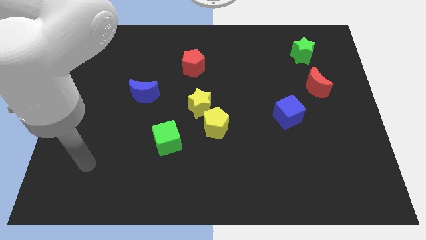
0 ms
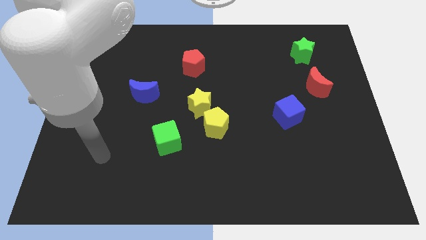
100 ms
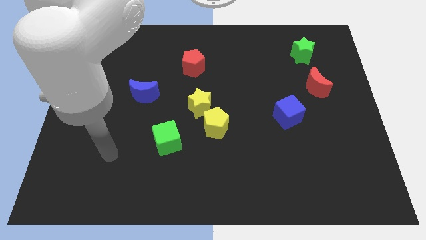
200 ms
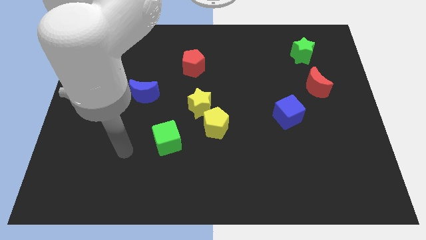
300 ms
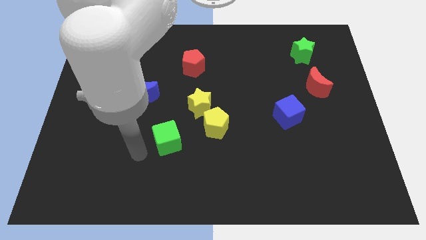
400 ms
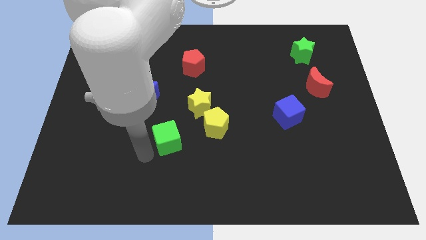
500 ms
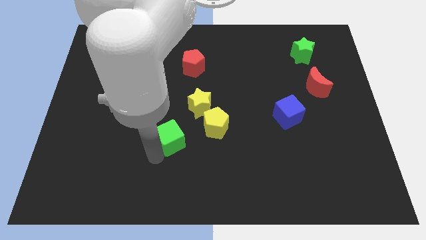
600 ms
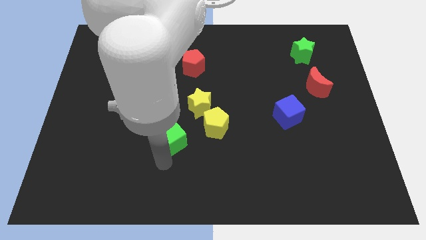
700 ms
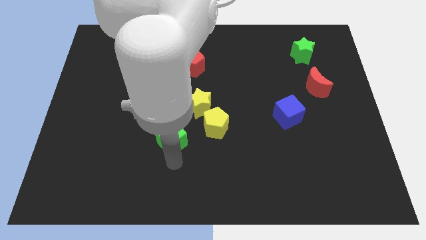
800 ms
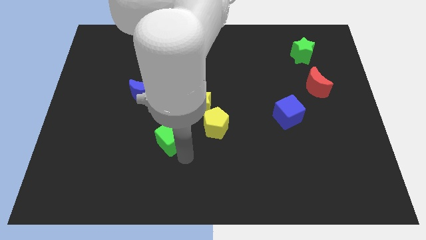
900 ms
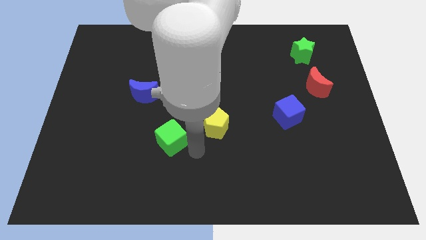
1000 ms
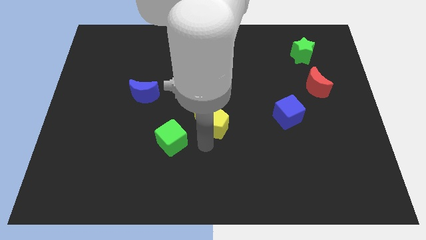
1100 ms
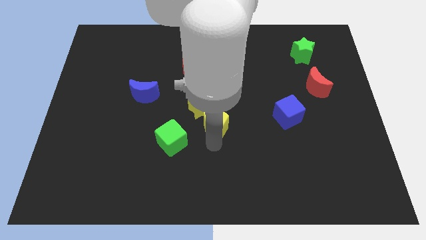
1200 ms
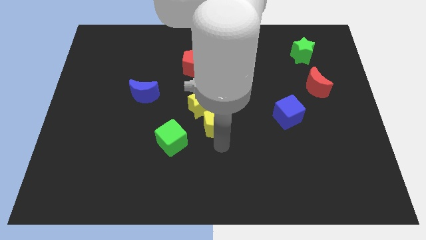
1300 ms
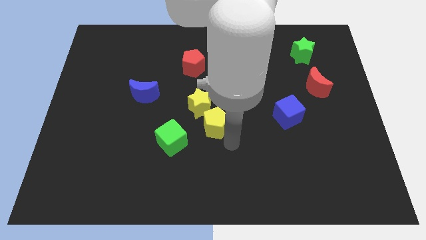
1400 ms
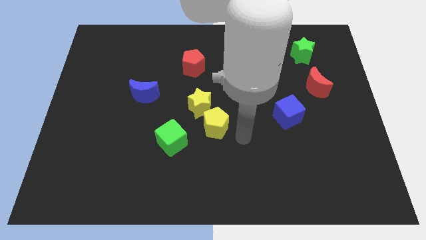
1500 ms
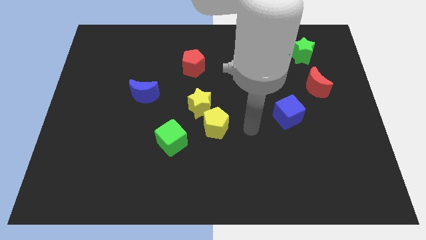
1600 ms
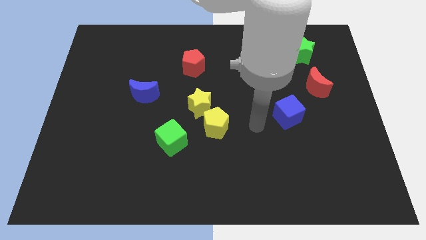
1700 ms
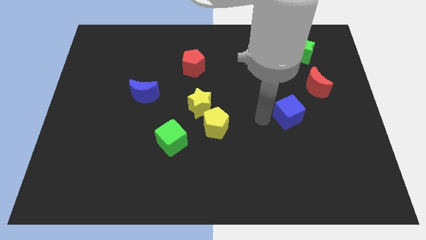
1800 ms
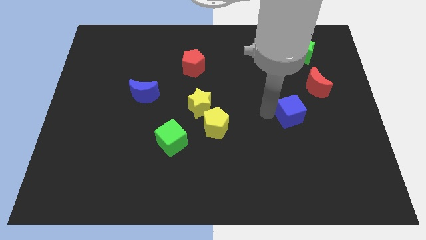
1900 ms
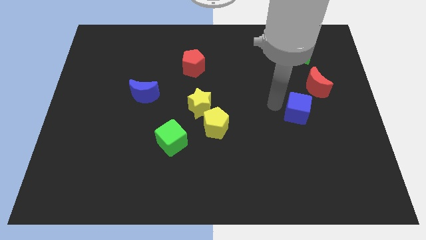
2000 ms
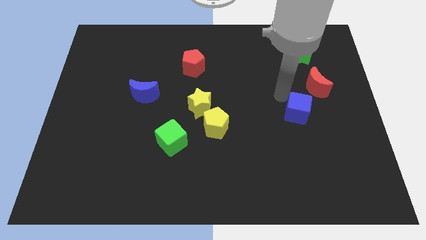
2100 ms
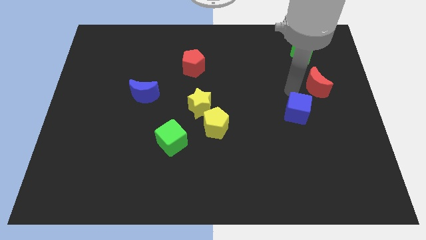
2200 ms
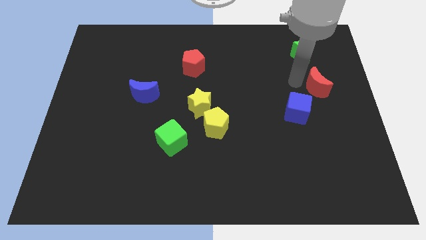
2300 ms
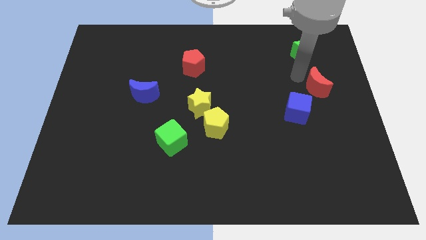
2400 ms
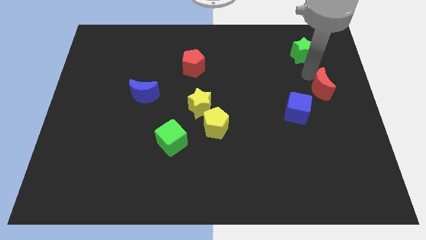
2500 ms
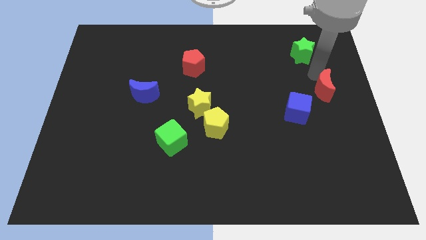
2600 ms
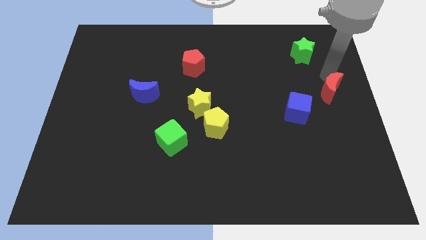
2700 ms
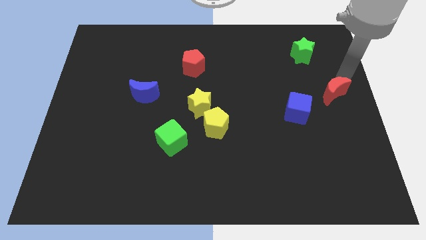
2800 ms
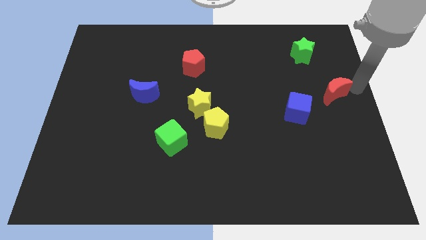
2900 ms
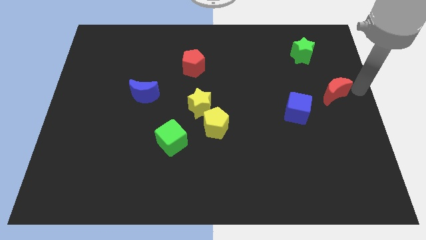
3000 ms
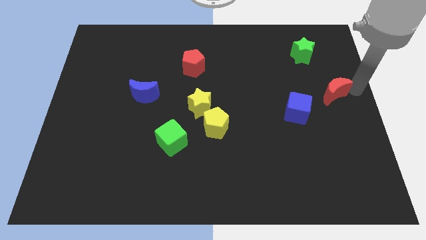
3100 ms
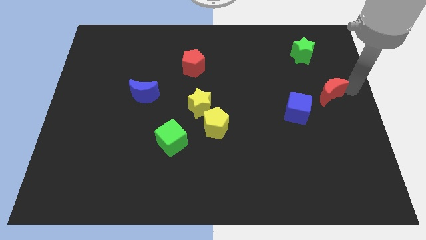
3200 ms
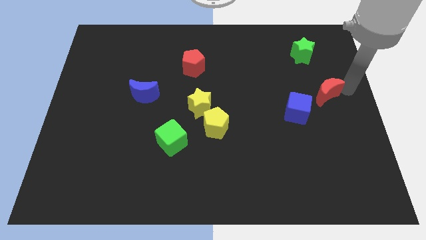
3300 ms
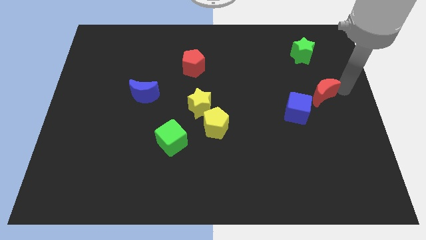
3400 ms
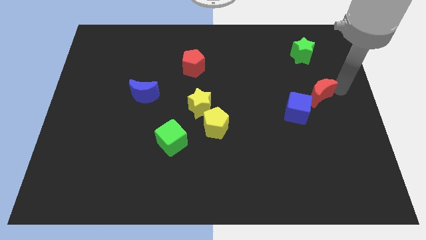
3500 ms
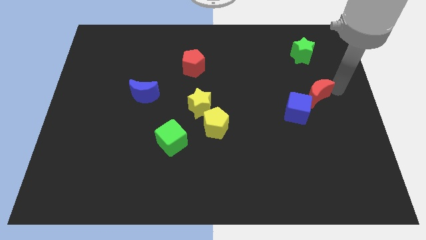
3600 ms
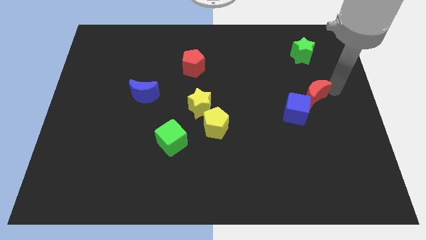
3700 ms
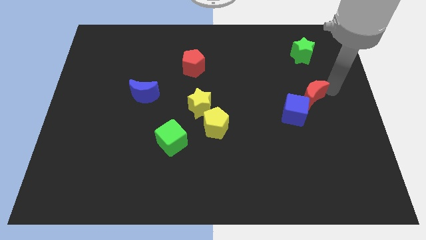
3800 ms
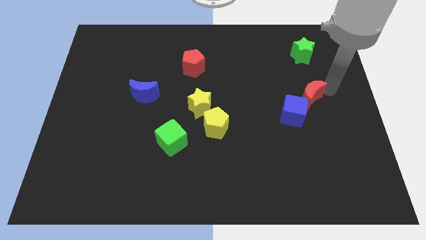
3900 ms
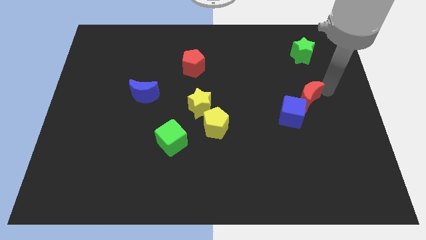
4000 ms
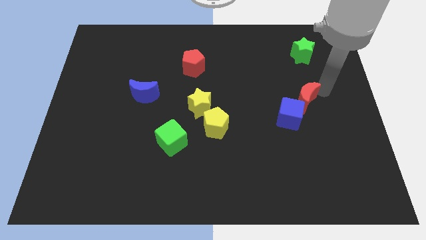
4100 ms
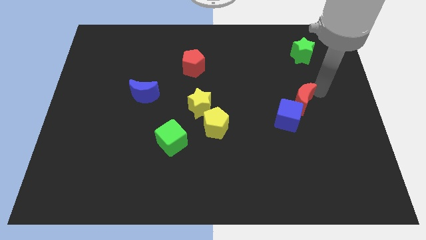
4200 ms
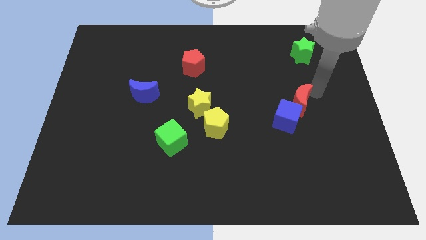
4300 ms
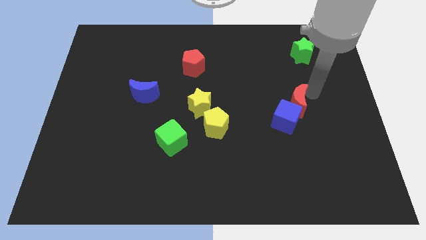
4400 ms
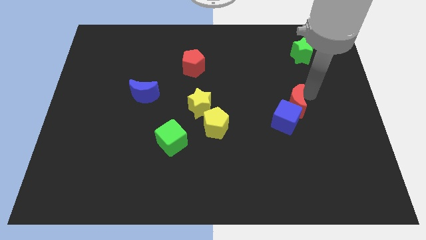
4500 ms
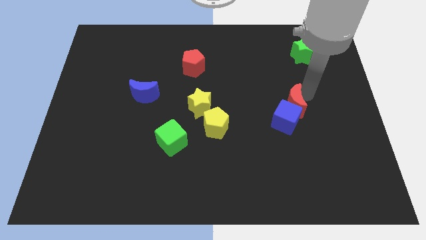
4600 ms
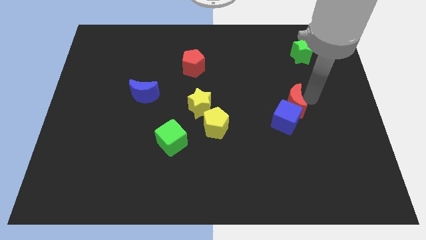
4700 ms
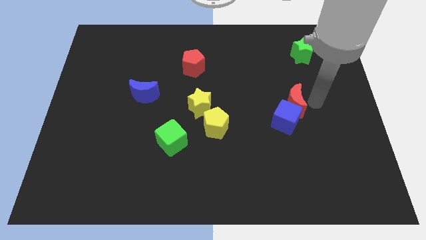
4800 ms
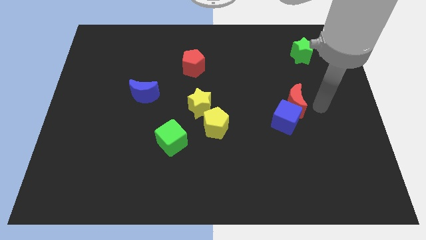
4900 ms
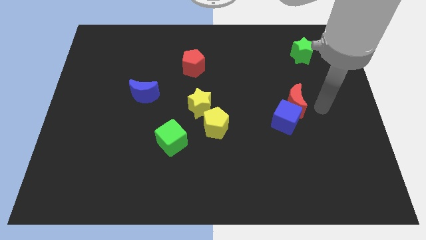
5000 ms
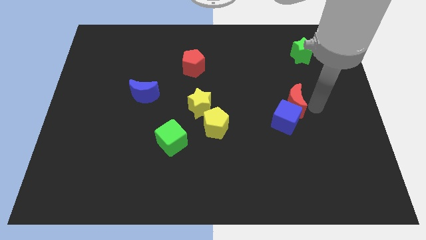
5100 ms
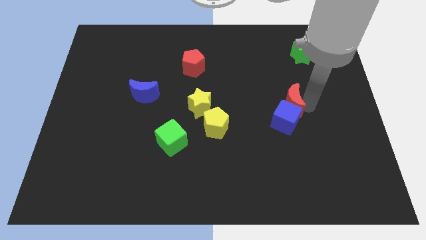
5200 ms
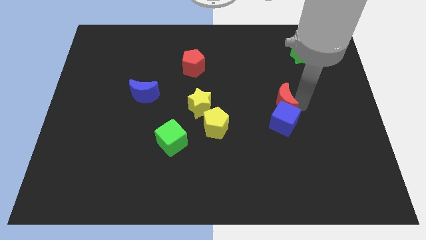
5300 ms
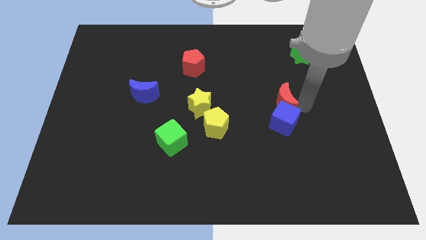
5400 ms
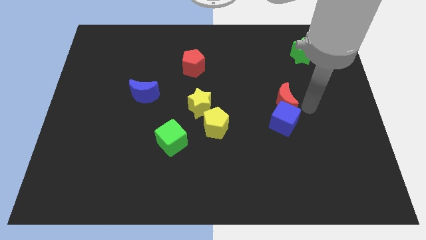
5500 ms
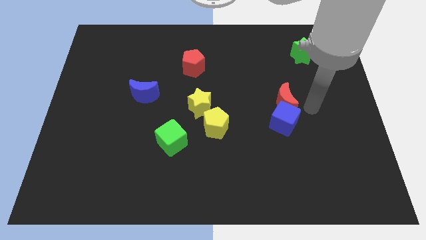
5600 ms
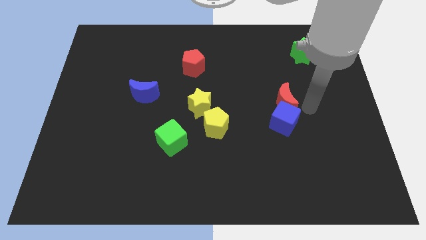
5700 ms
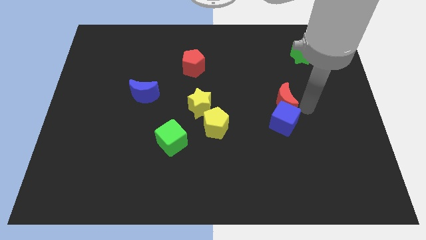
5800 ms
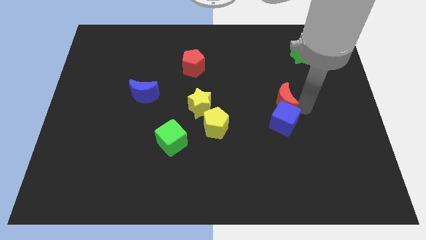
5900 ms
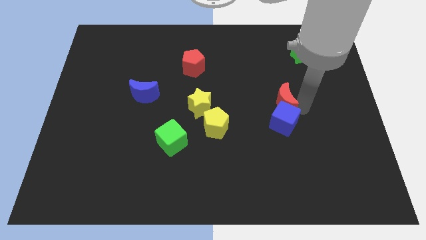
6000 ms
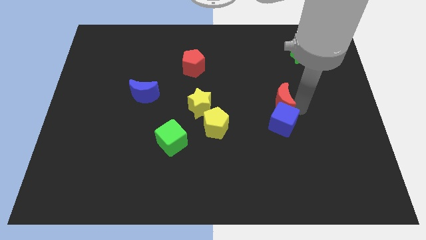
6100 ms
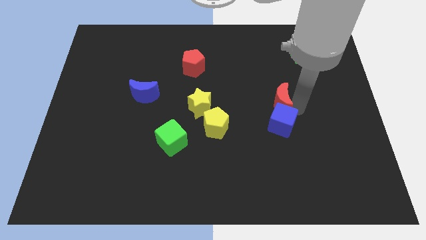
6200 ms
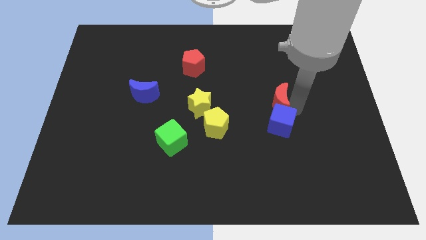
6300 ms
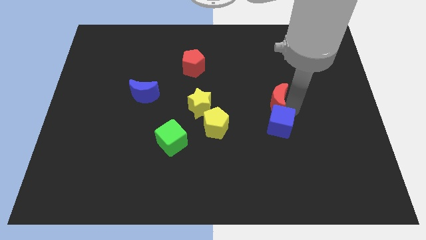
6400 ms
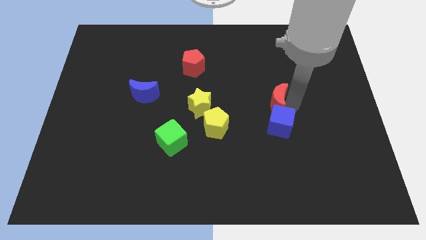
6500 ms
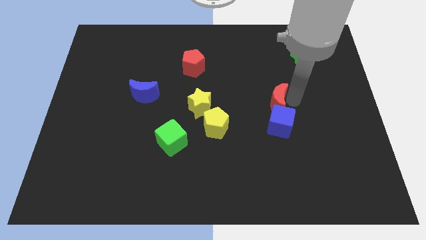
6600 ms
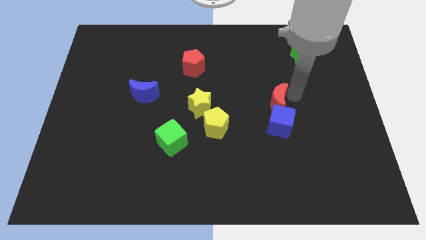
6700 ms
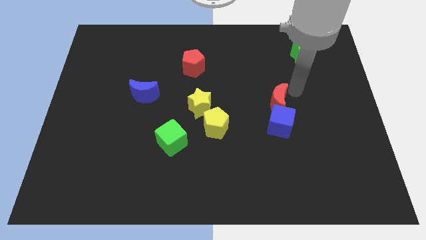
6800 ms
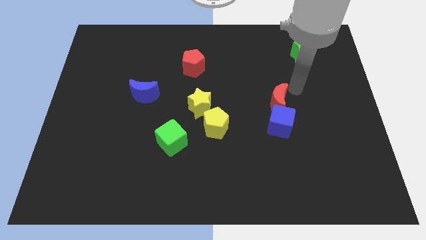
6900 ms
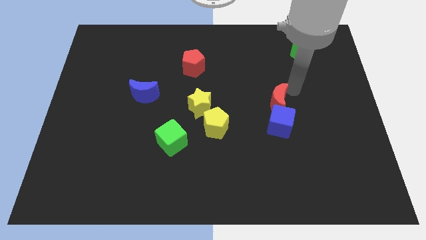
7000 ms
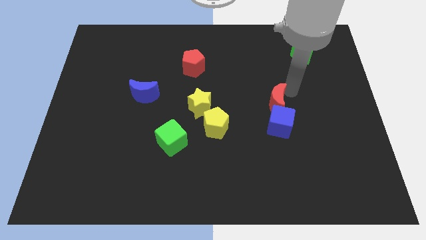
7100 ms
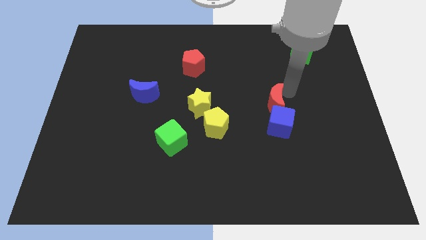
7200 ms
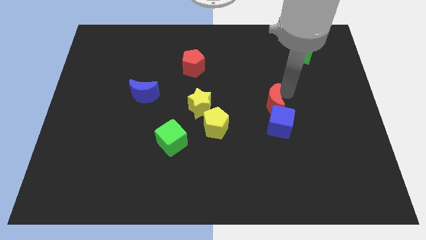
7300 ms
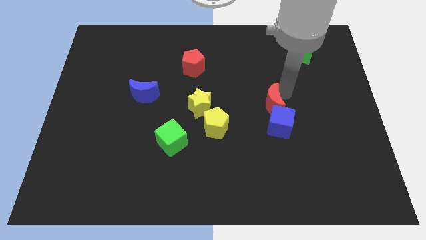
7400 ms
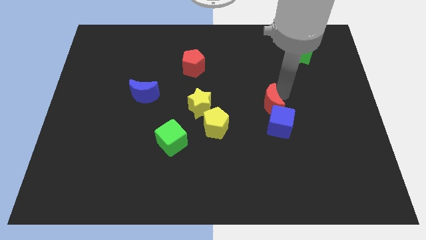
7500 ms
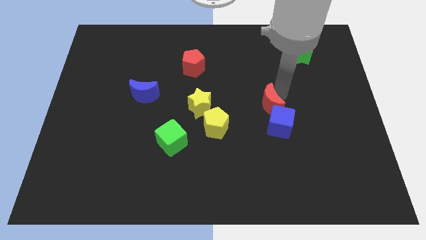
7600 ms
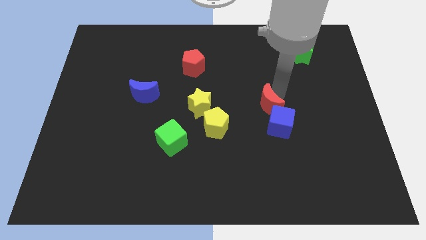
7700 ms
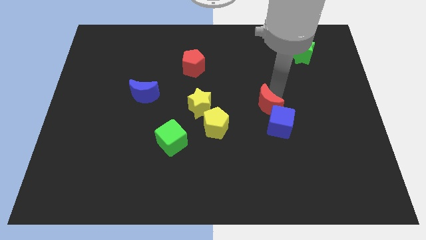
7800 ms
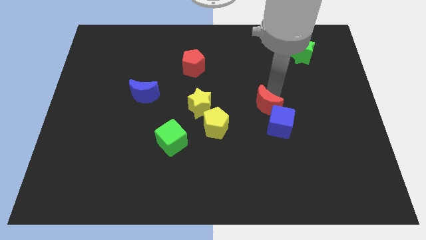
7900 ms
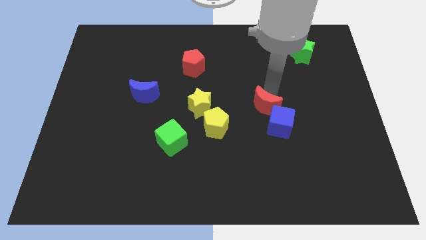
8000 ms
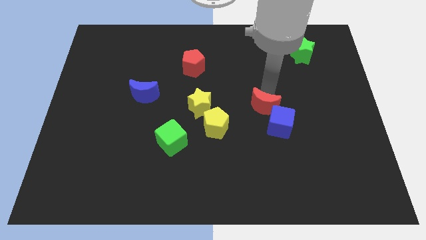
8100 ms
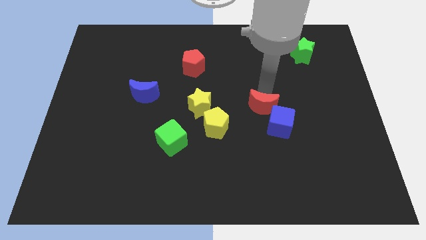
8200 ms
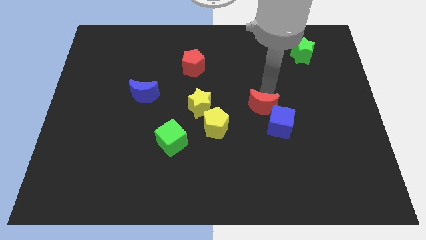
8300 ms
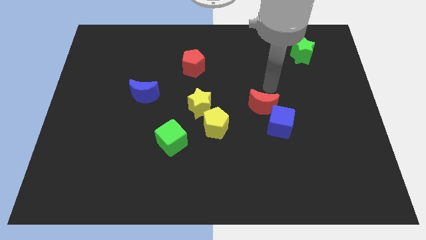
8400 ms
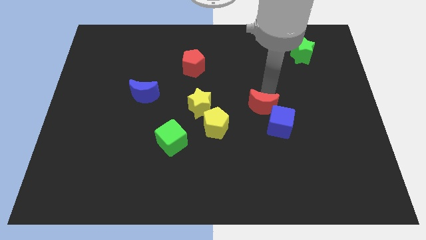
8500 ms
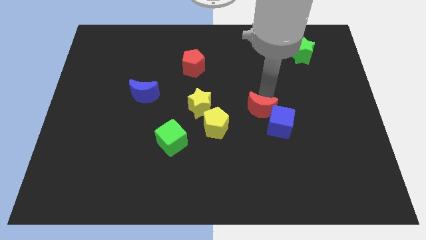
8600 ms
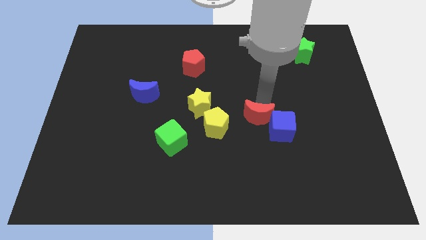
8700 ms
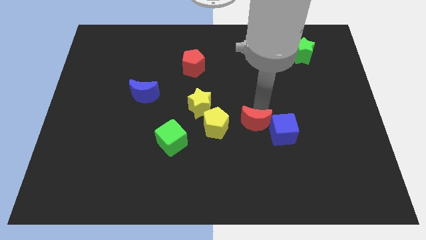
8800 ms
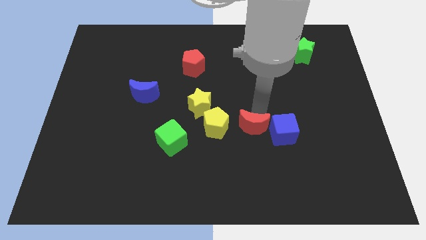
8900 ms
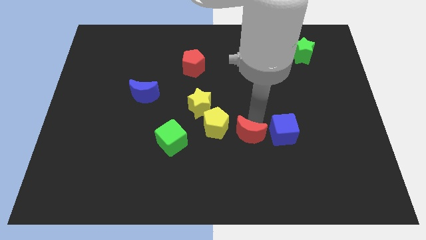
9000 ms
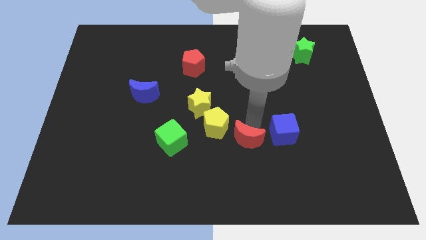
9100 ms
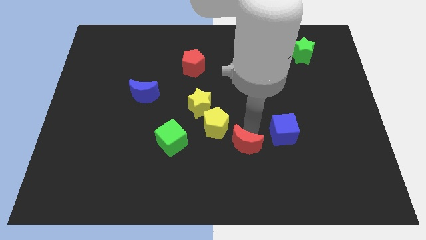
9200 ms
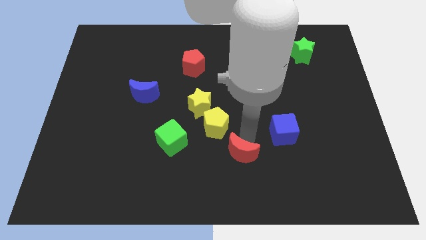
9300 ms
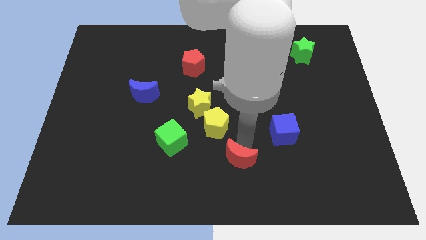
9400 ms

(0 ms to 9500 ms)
slide the red moon to the bottom side
